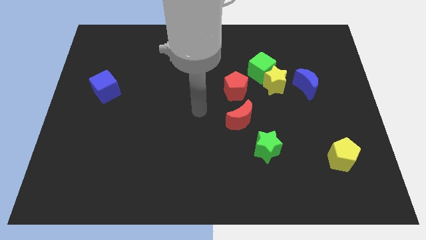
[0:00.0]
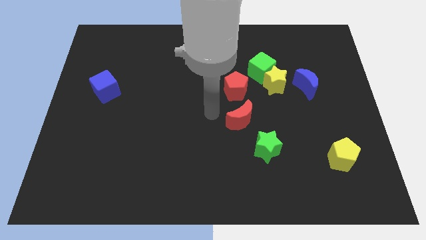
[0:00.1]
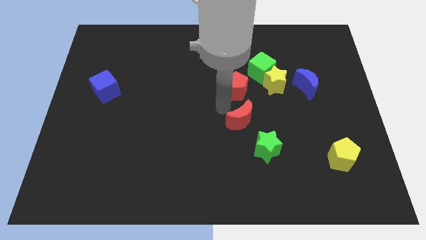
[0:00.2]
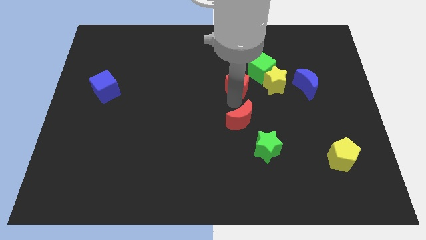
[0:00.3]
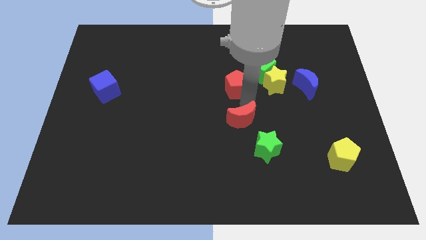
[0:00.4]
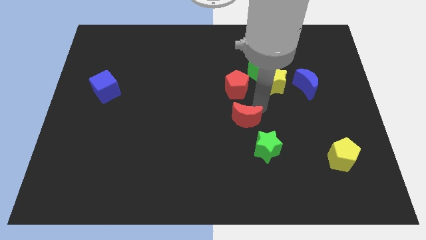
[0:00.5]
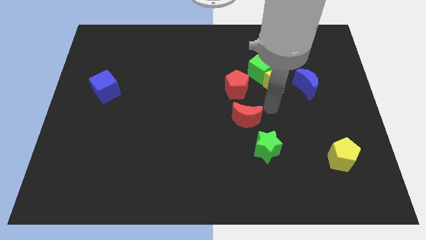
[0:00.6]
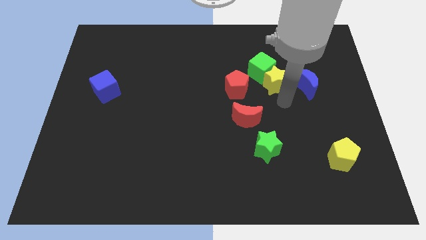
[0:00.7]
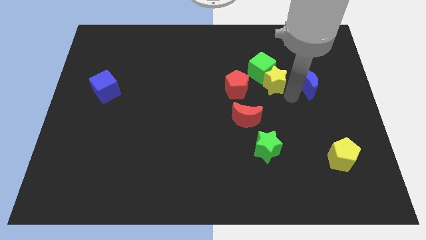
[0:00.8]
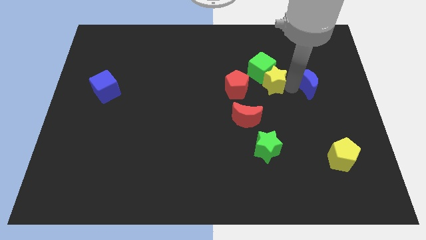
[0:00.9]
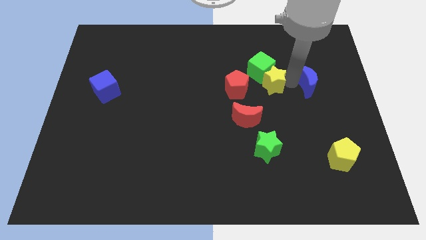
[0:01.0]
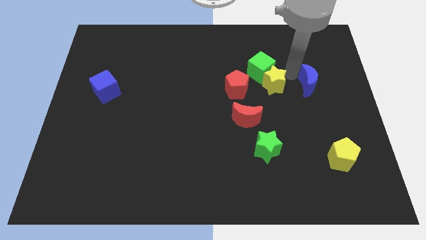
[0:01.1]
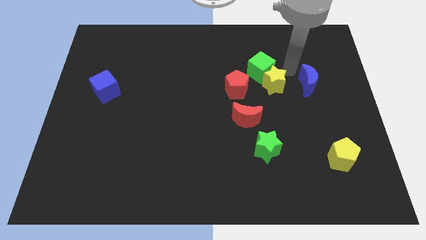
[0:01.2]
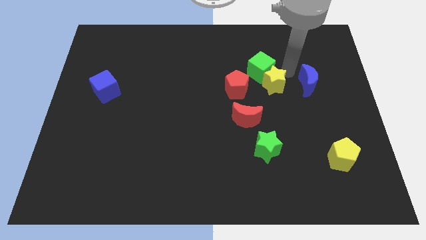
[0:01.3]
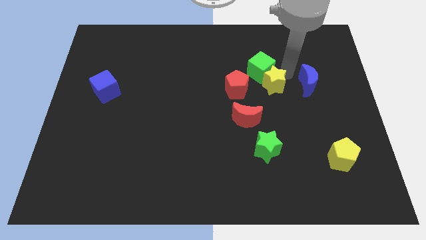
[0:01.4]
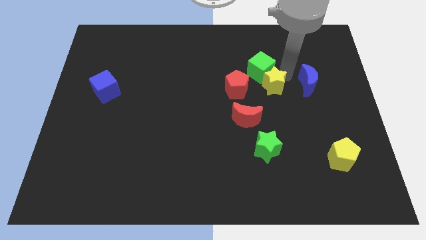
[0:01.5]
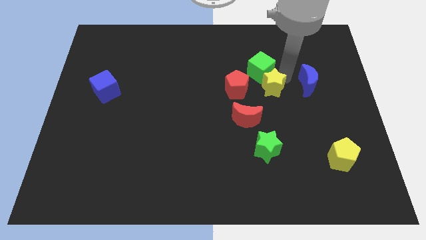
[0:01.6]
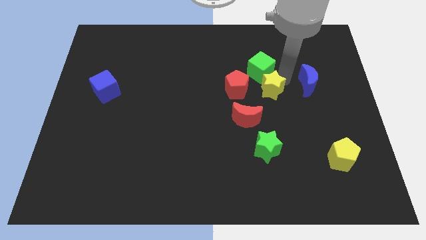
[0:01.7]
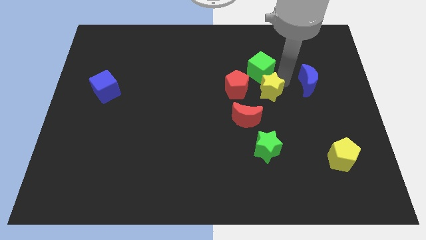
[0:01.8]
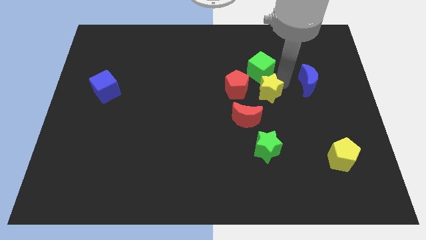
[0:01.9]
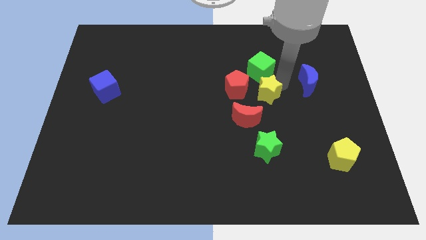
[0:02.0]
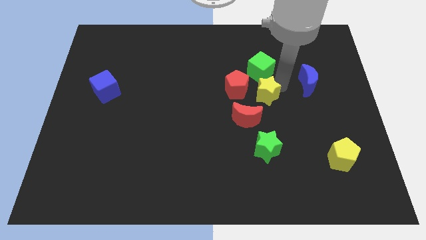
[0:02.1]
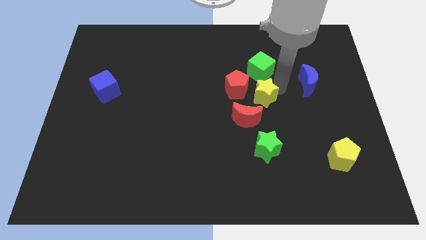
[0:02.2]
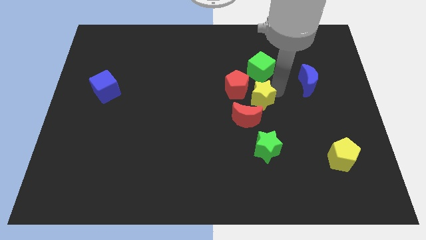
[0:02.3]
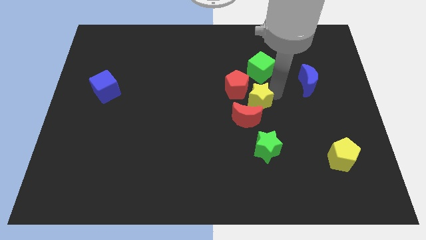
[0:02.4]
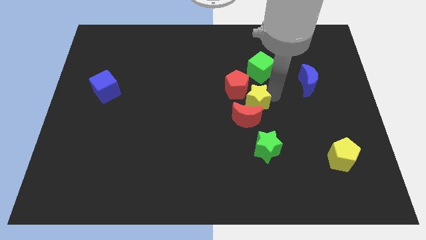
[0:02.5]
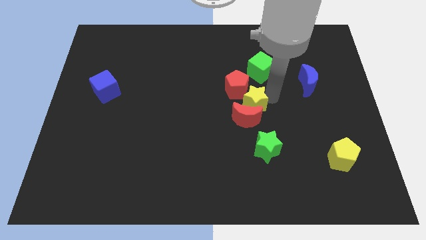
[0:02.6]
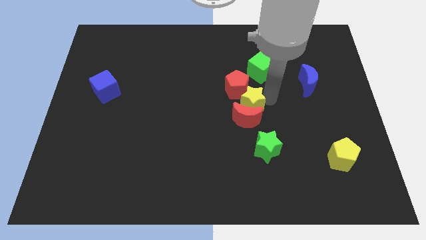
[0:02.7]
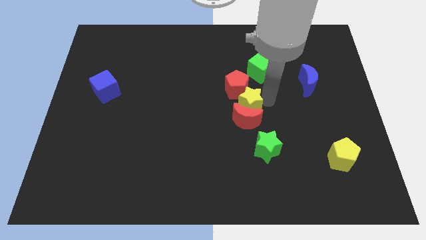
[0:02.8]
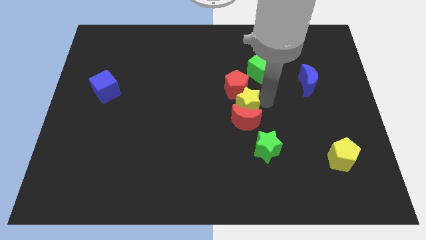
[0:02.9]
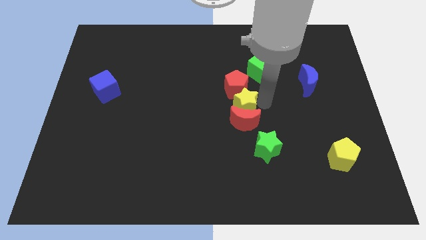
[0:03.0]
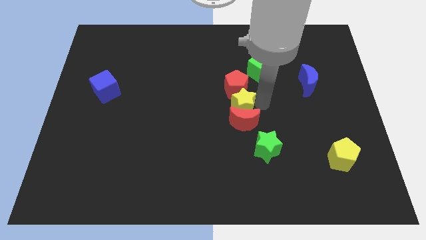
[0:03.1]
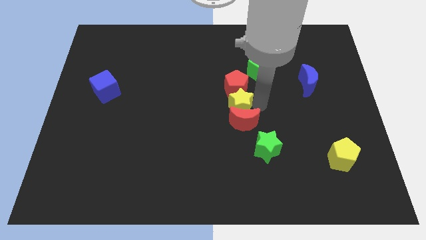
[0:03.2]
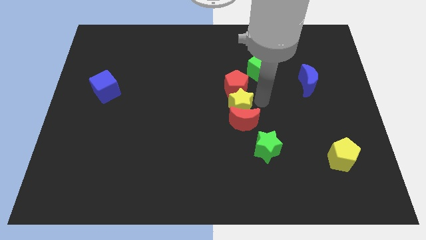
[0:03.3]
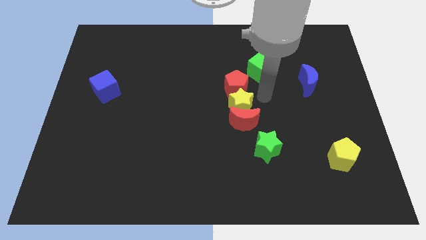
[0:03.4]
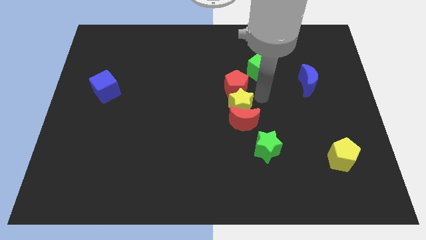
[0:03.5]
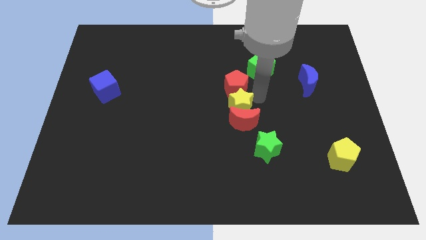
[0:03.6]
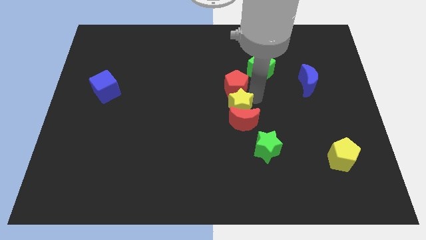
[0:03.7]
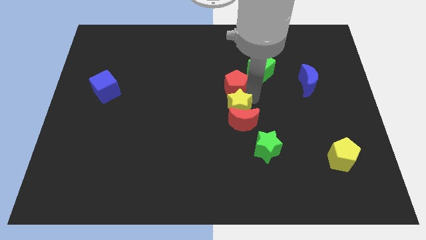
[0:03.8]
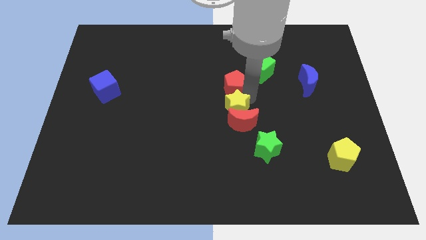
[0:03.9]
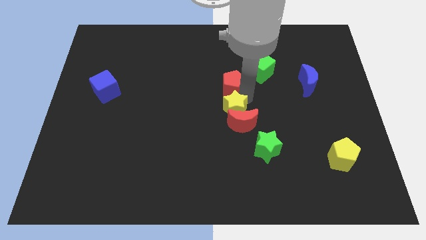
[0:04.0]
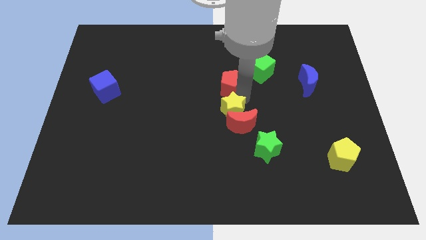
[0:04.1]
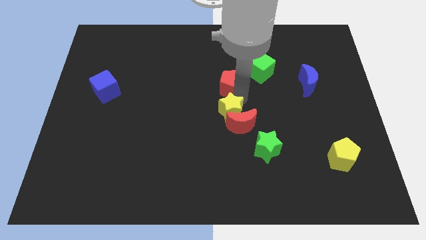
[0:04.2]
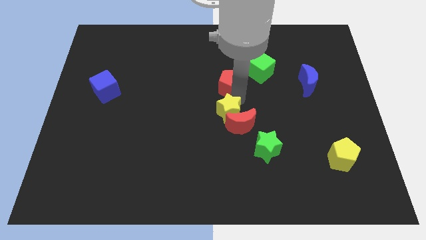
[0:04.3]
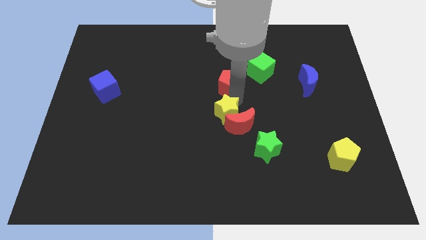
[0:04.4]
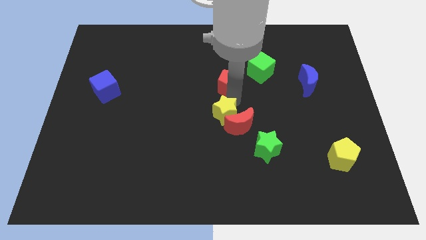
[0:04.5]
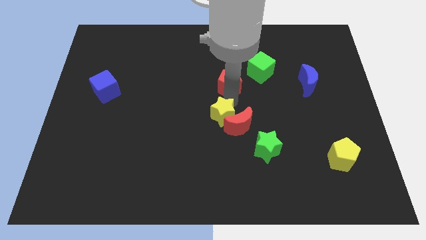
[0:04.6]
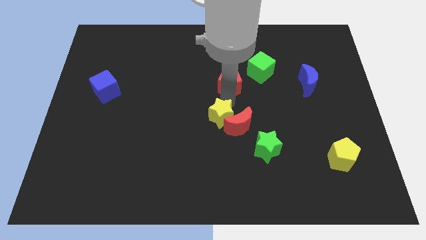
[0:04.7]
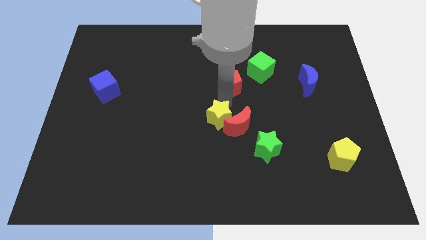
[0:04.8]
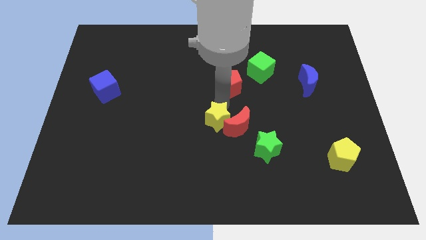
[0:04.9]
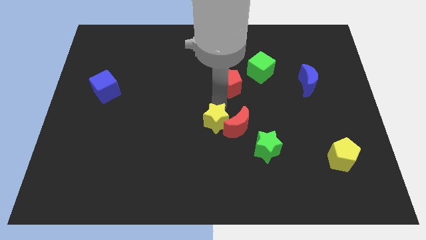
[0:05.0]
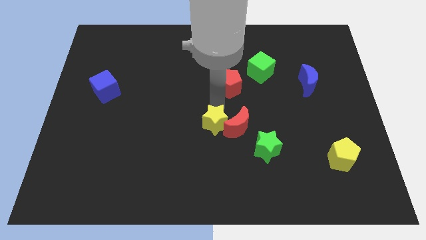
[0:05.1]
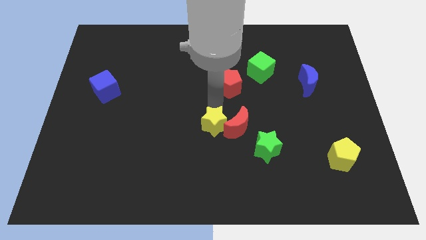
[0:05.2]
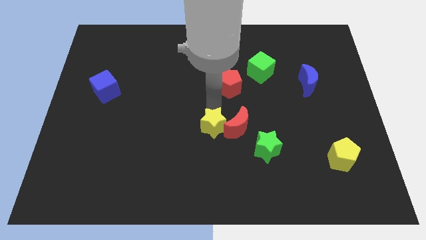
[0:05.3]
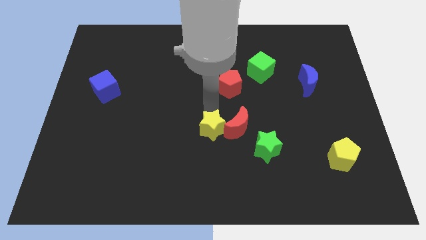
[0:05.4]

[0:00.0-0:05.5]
push the yellow star down and left diagonally

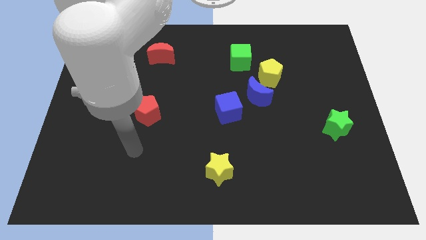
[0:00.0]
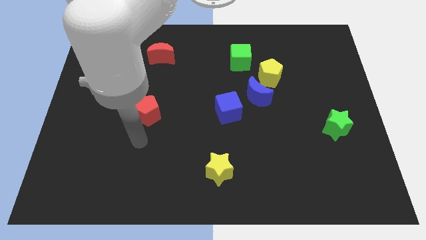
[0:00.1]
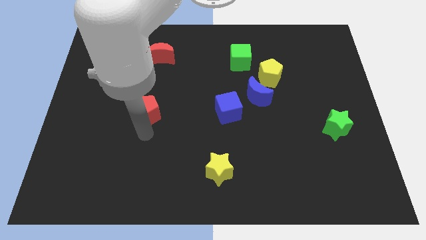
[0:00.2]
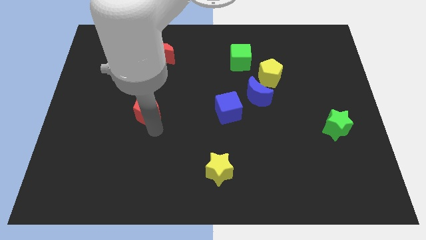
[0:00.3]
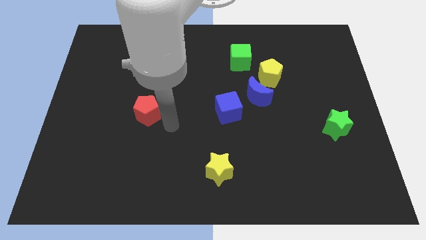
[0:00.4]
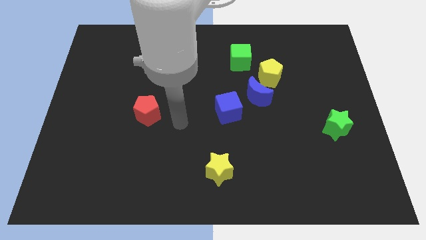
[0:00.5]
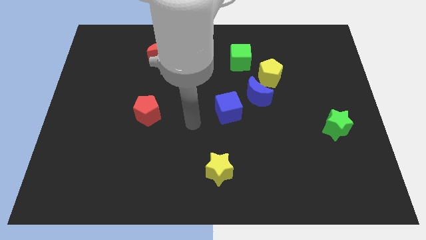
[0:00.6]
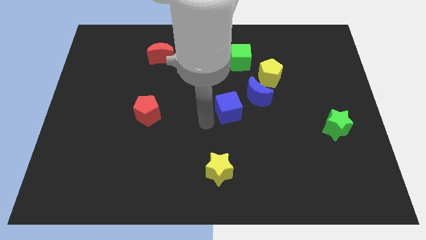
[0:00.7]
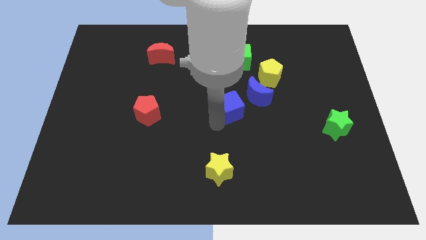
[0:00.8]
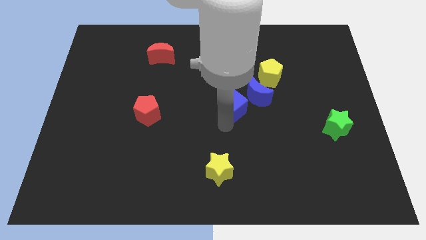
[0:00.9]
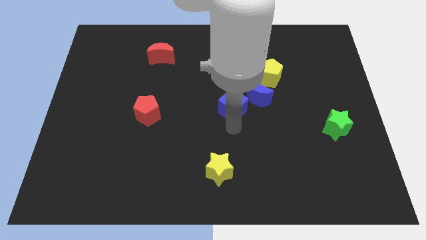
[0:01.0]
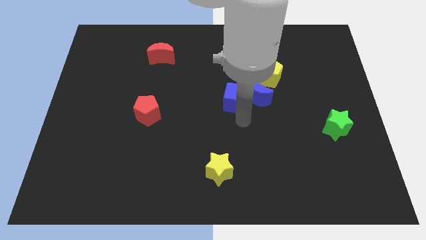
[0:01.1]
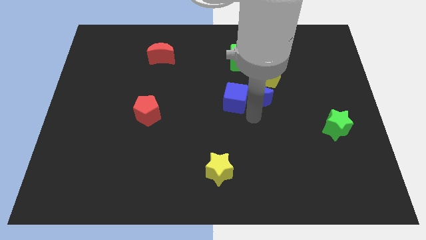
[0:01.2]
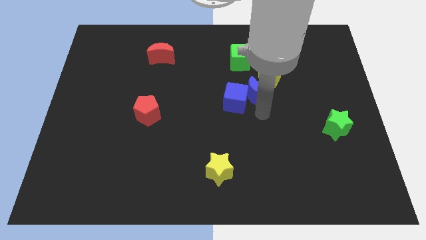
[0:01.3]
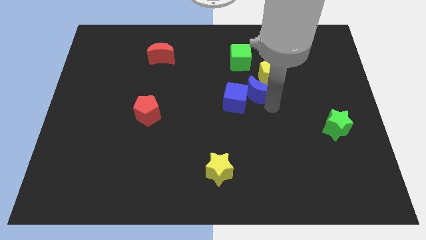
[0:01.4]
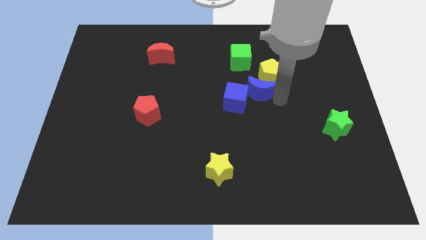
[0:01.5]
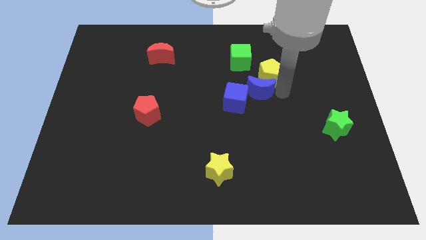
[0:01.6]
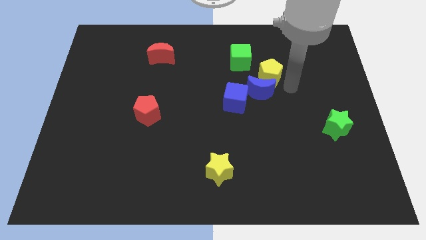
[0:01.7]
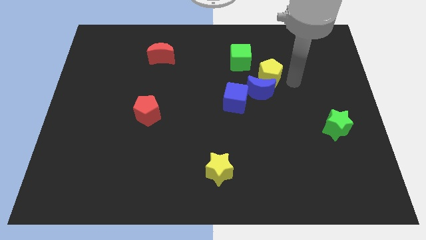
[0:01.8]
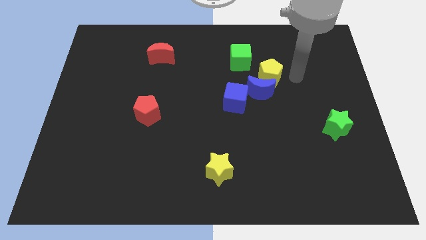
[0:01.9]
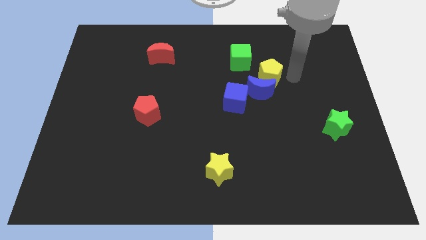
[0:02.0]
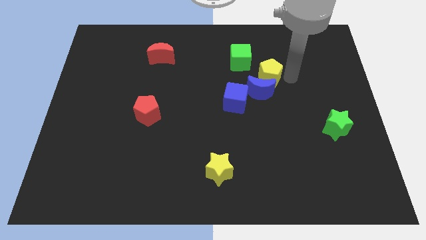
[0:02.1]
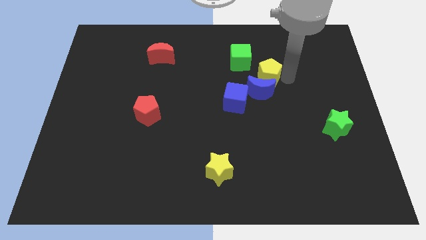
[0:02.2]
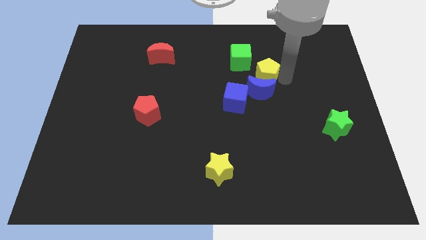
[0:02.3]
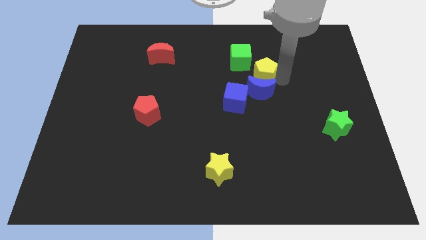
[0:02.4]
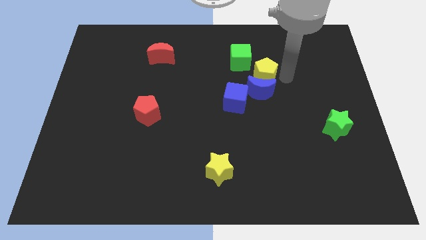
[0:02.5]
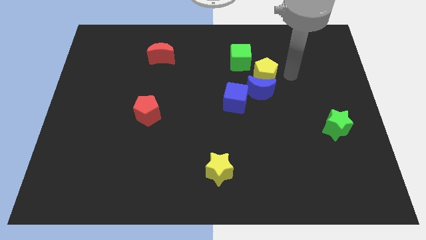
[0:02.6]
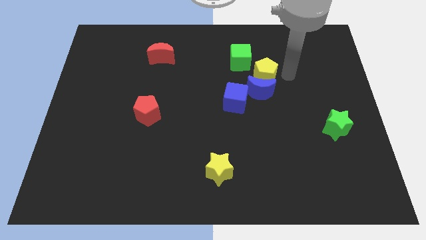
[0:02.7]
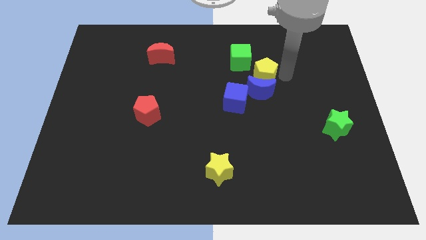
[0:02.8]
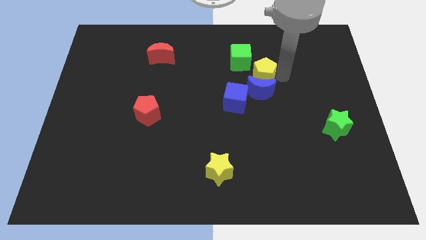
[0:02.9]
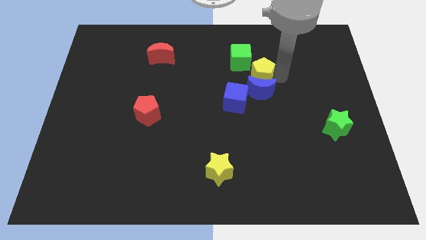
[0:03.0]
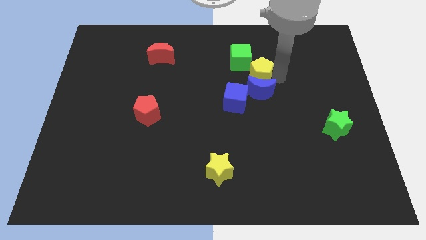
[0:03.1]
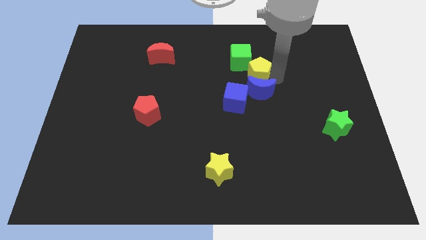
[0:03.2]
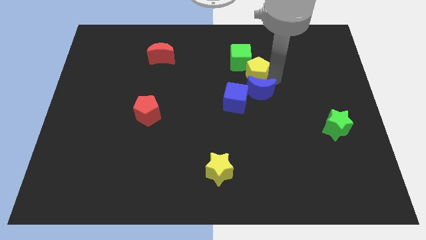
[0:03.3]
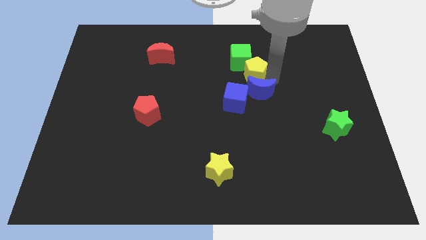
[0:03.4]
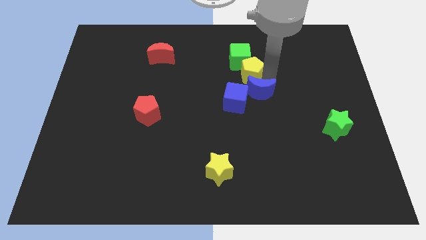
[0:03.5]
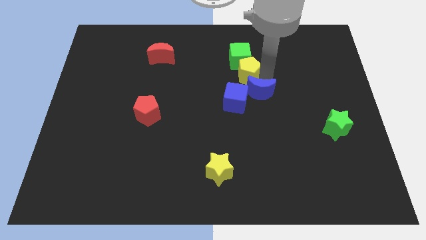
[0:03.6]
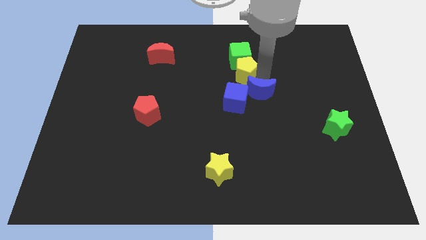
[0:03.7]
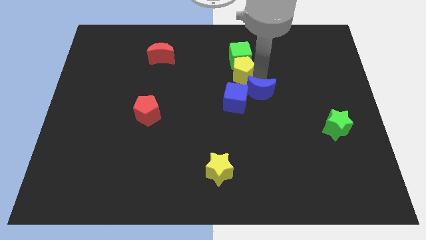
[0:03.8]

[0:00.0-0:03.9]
slightly slide the yellow pentagon left
